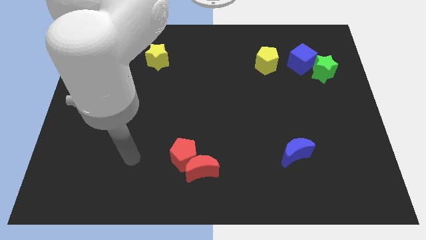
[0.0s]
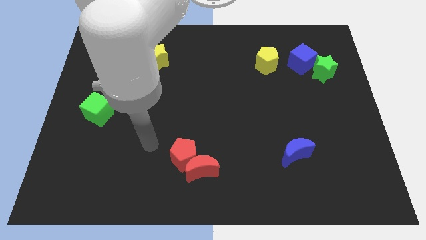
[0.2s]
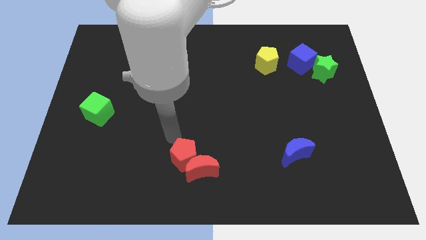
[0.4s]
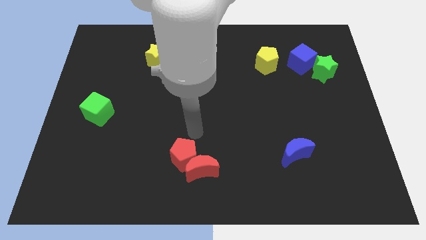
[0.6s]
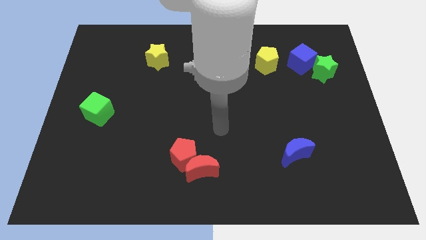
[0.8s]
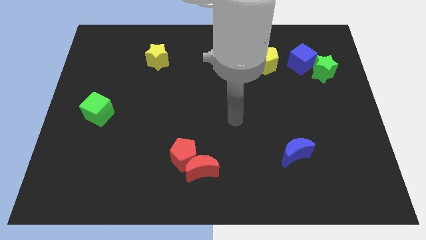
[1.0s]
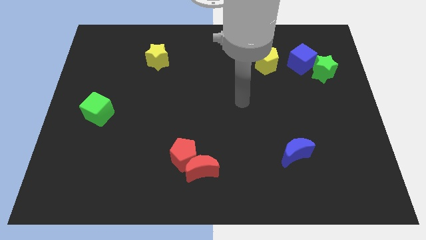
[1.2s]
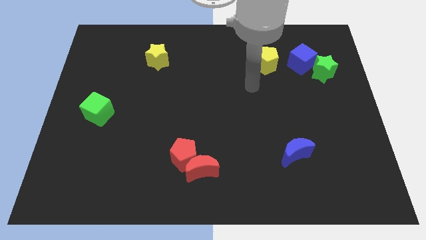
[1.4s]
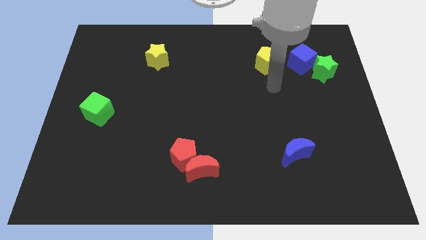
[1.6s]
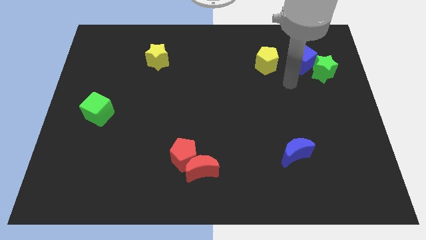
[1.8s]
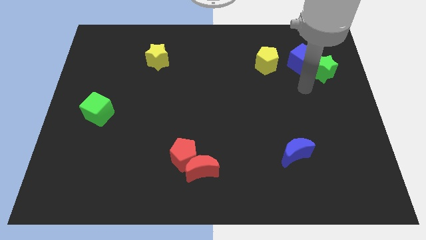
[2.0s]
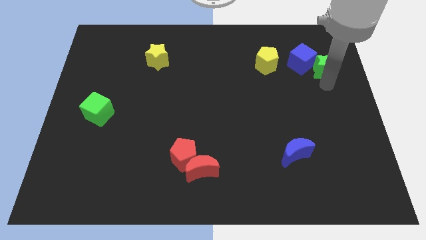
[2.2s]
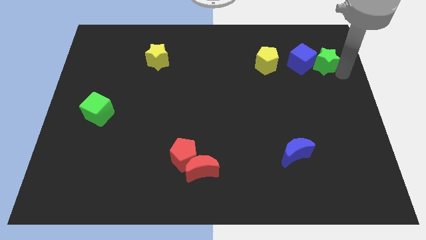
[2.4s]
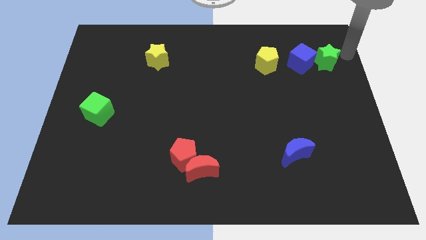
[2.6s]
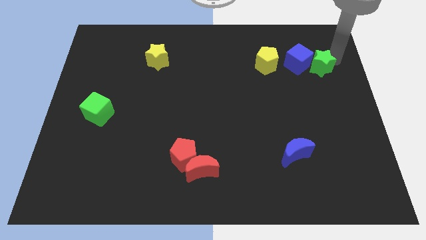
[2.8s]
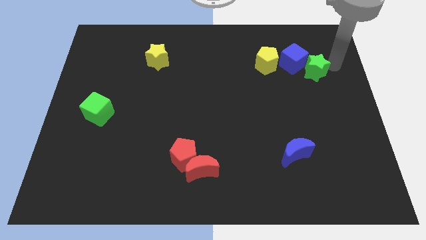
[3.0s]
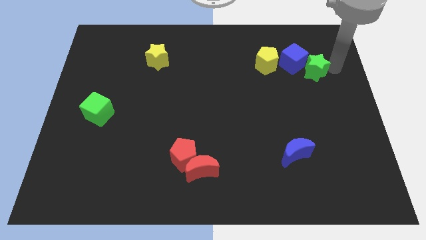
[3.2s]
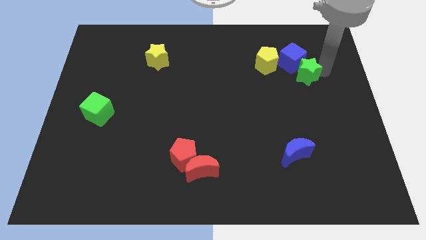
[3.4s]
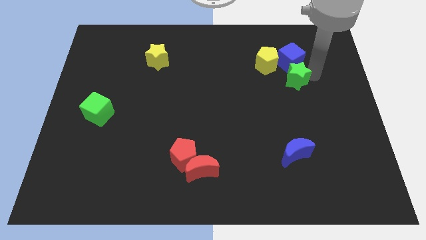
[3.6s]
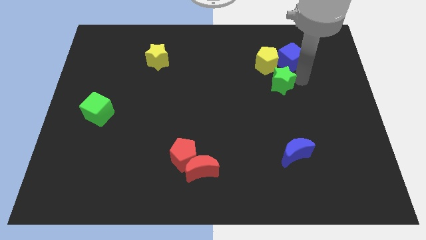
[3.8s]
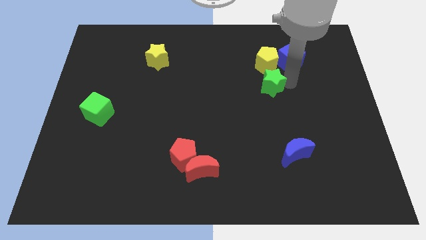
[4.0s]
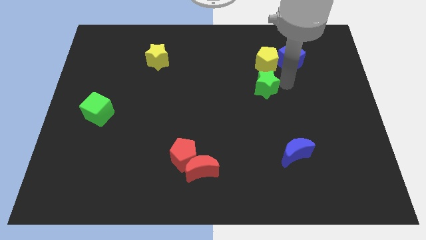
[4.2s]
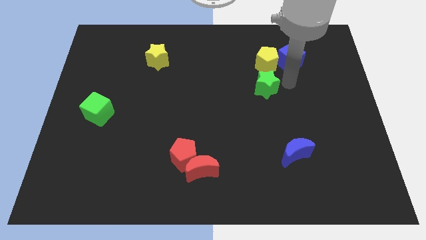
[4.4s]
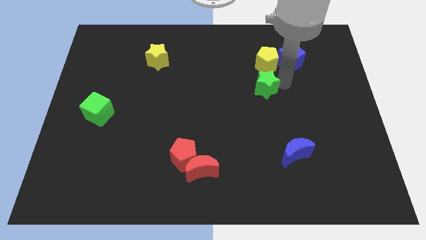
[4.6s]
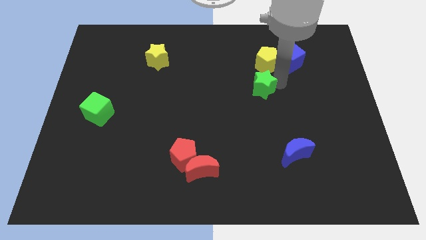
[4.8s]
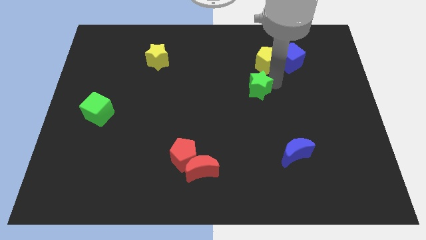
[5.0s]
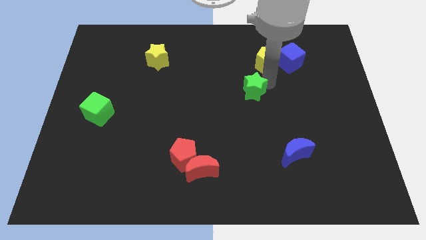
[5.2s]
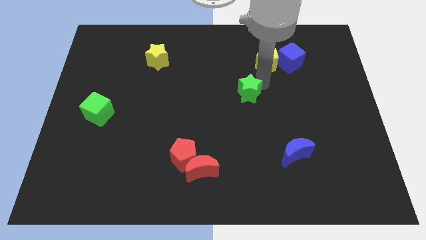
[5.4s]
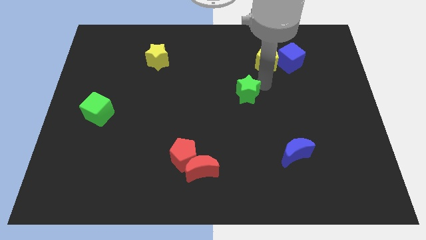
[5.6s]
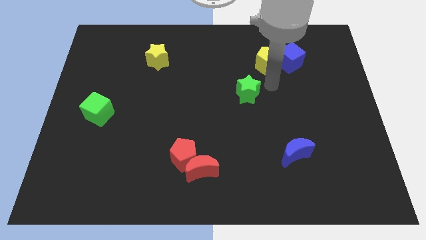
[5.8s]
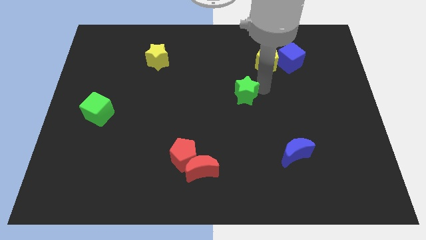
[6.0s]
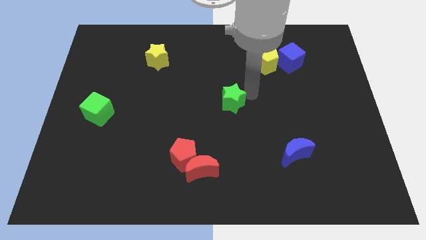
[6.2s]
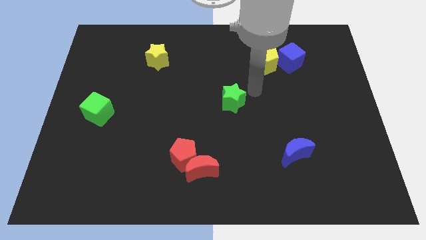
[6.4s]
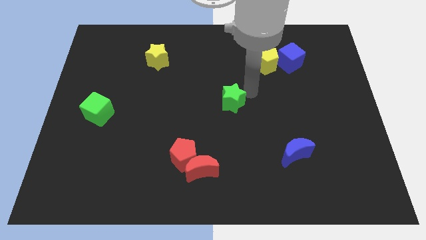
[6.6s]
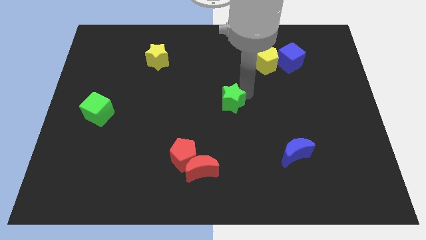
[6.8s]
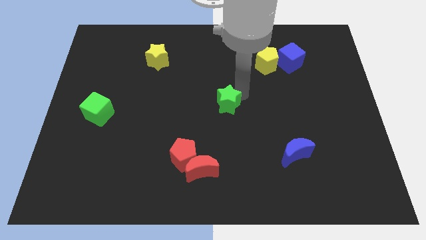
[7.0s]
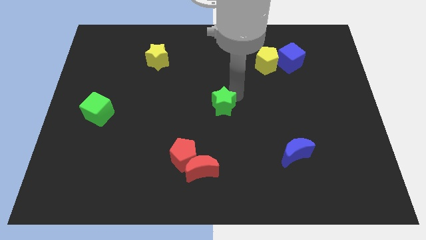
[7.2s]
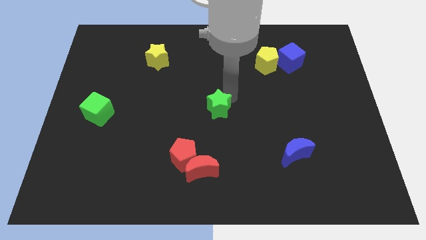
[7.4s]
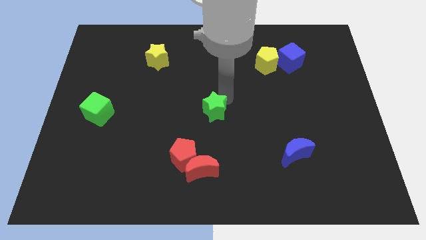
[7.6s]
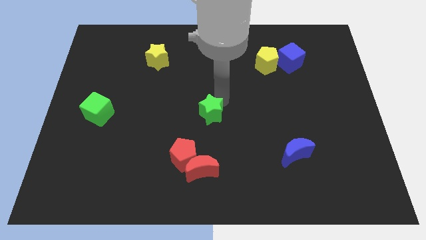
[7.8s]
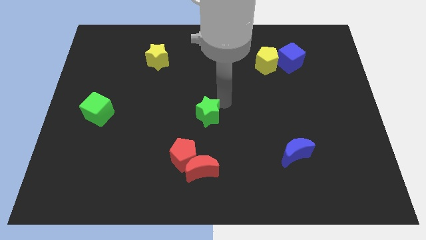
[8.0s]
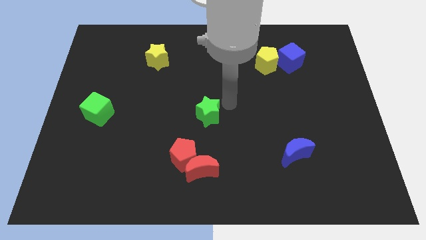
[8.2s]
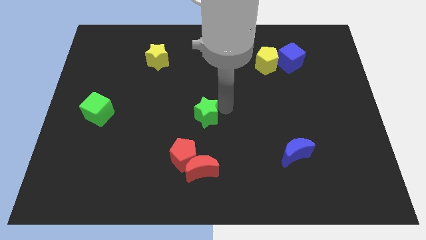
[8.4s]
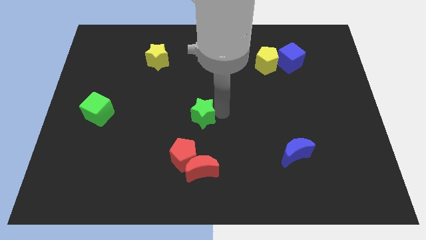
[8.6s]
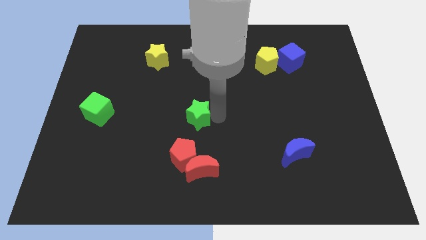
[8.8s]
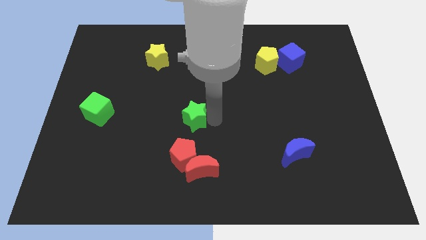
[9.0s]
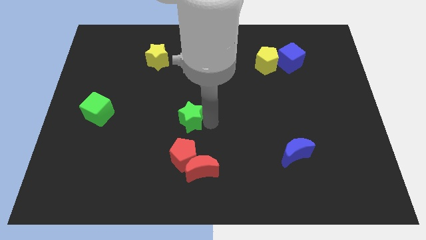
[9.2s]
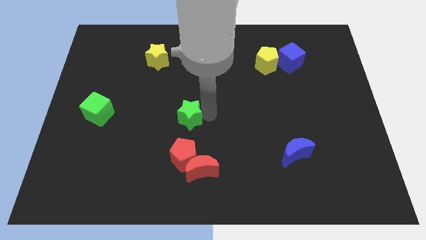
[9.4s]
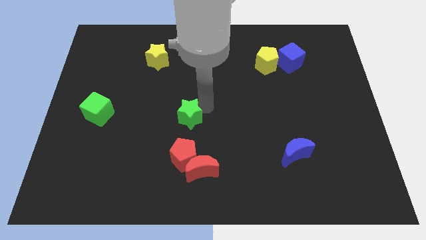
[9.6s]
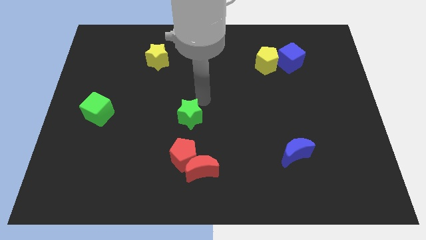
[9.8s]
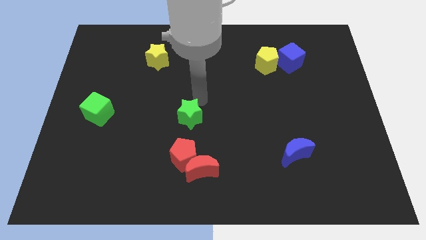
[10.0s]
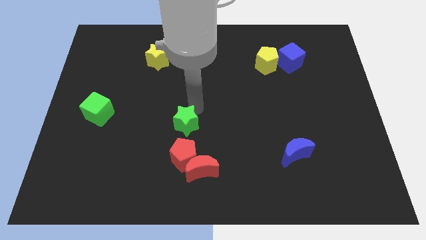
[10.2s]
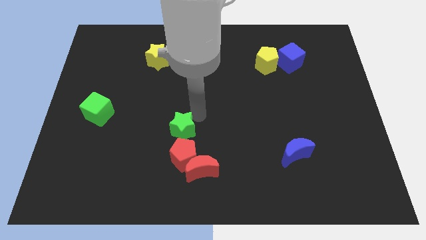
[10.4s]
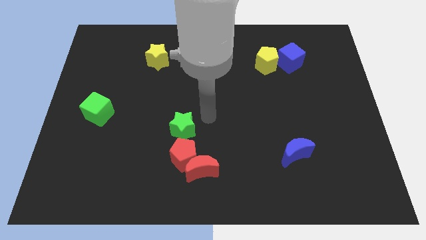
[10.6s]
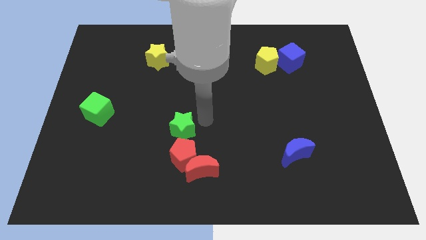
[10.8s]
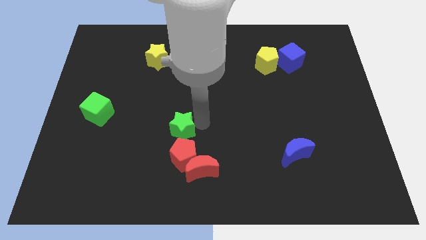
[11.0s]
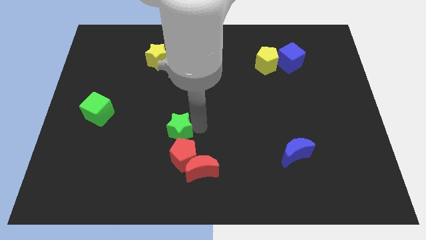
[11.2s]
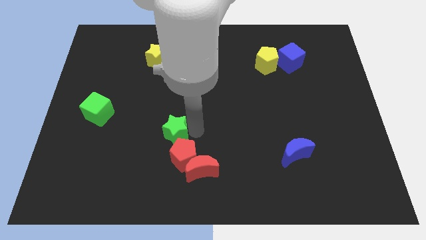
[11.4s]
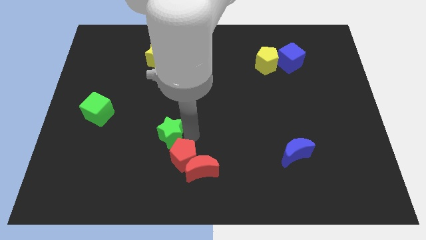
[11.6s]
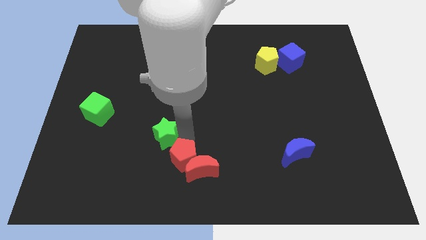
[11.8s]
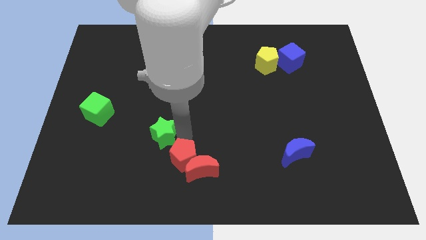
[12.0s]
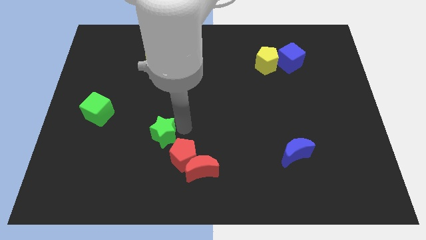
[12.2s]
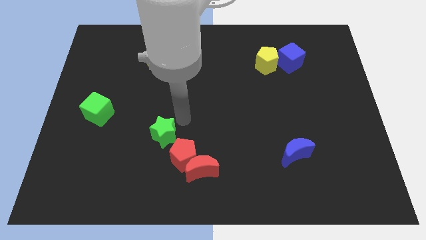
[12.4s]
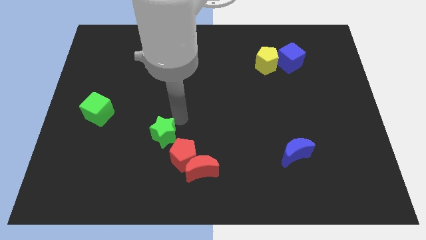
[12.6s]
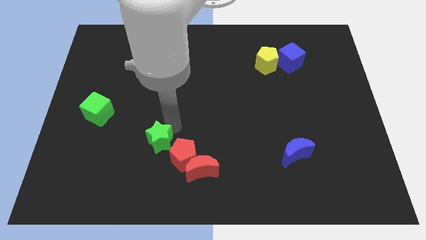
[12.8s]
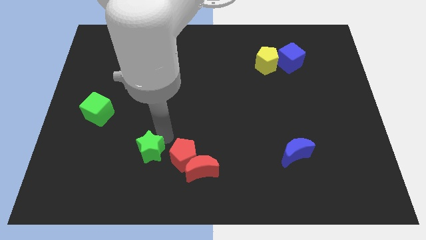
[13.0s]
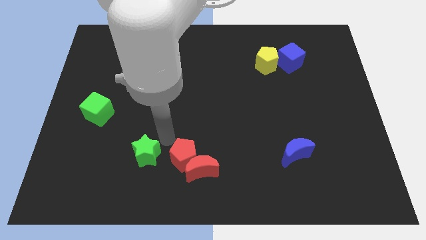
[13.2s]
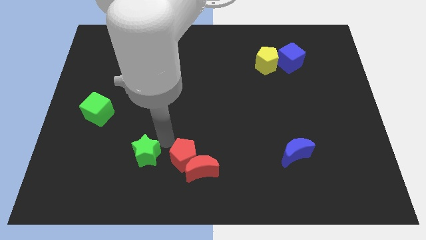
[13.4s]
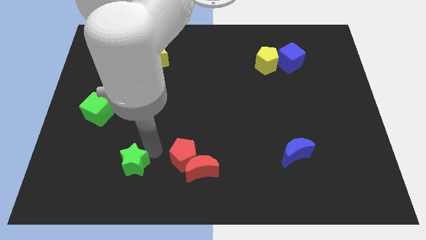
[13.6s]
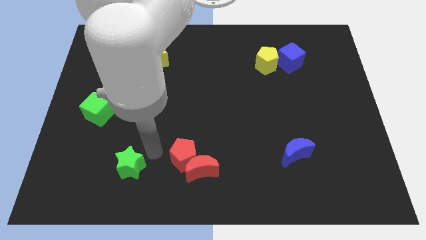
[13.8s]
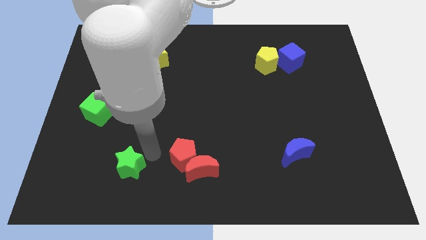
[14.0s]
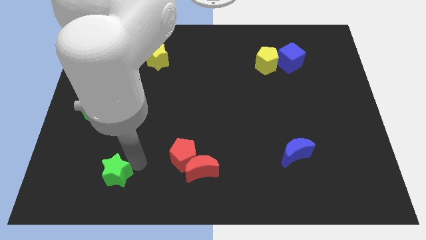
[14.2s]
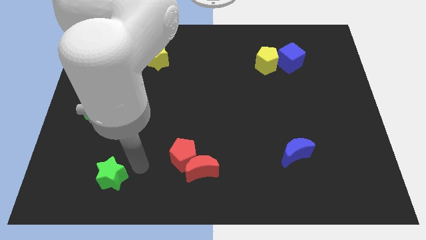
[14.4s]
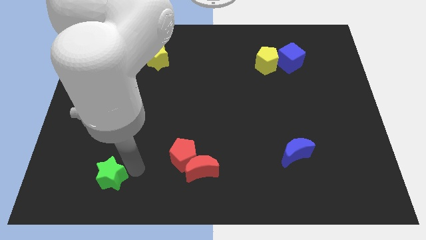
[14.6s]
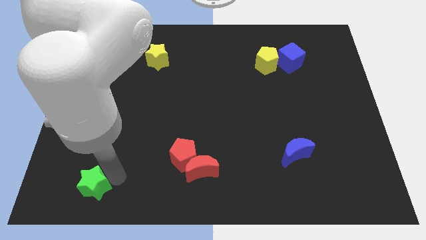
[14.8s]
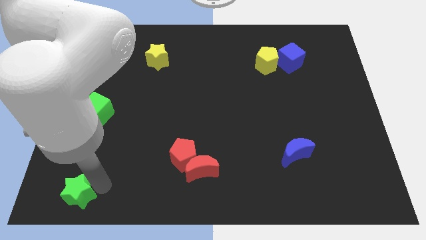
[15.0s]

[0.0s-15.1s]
move the green star to the bottom left of the board
